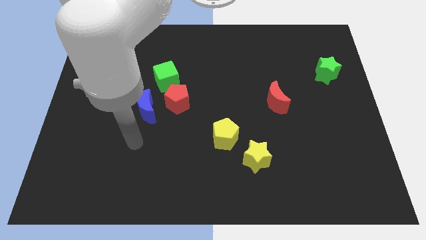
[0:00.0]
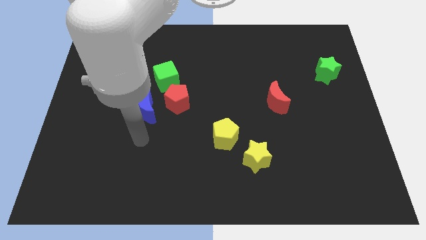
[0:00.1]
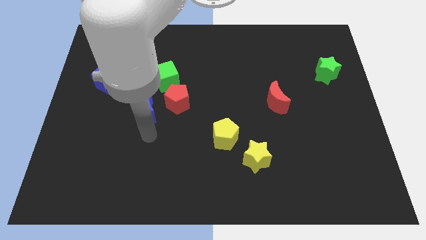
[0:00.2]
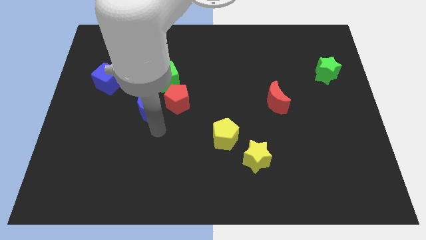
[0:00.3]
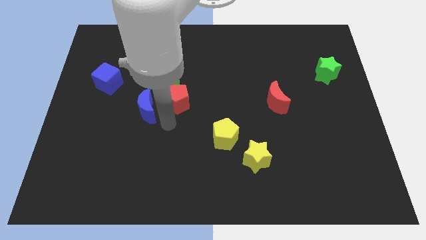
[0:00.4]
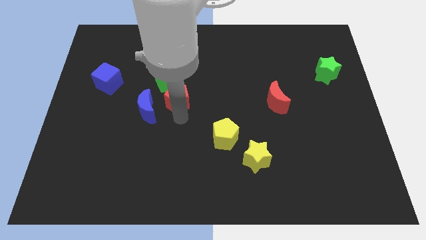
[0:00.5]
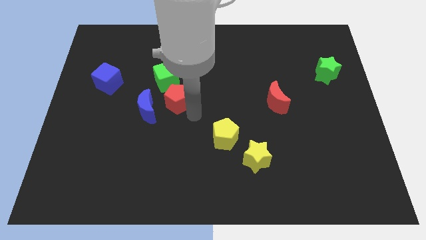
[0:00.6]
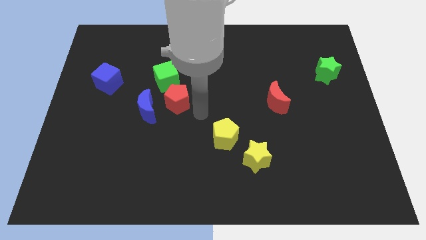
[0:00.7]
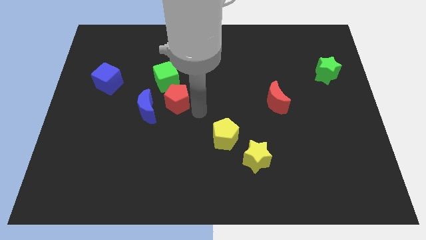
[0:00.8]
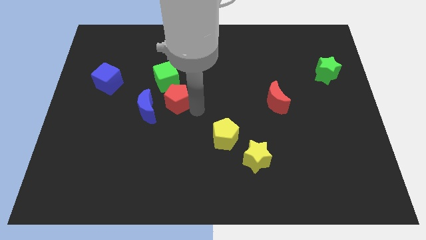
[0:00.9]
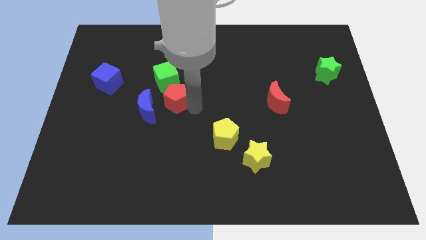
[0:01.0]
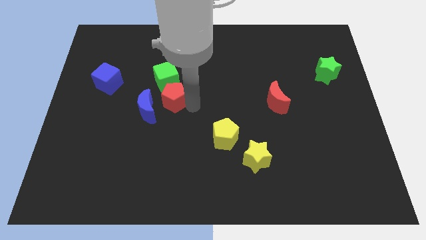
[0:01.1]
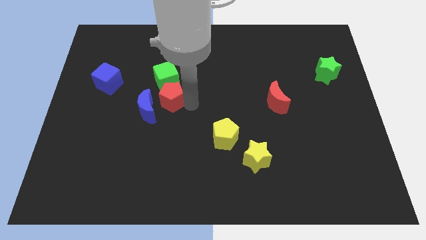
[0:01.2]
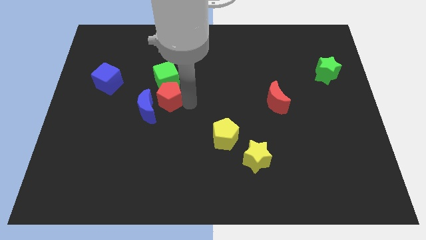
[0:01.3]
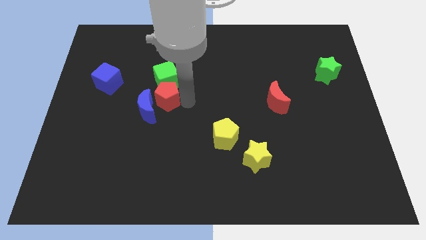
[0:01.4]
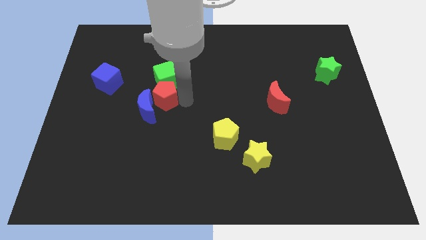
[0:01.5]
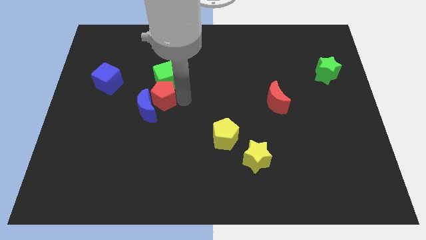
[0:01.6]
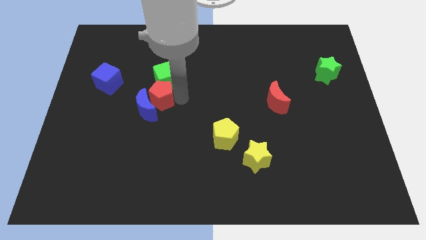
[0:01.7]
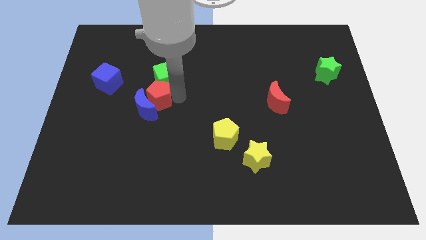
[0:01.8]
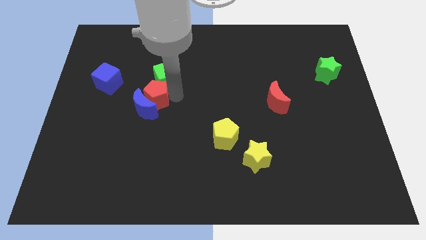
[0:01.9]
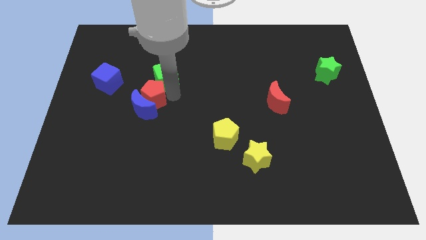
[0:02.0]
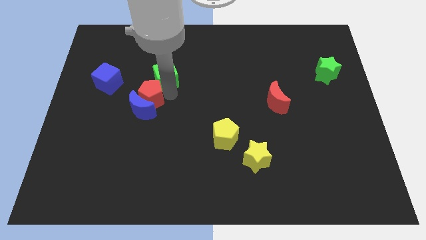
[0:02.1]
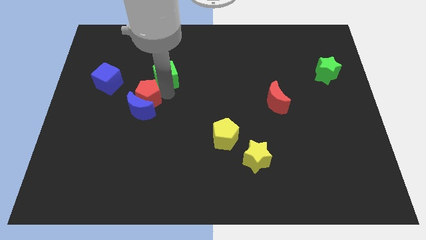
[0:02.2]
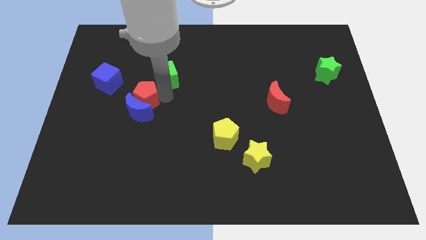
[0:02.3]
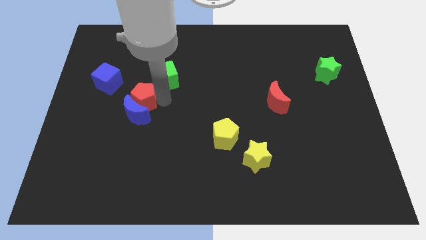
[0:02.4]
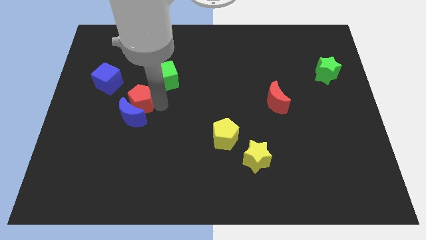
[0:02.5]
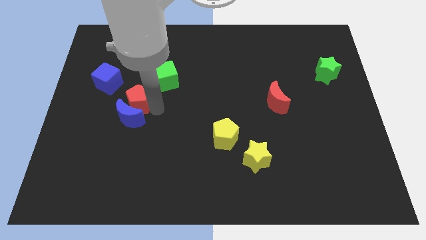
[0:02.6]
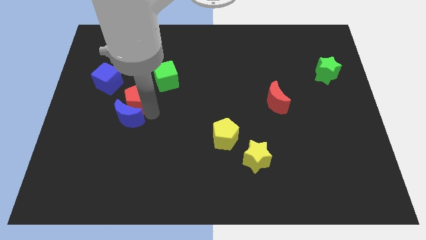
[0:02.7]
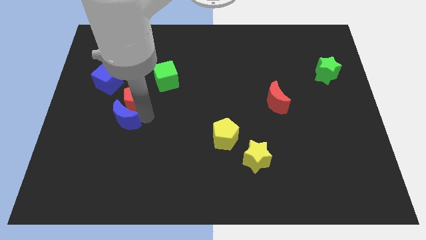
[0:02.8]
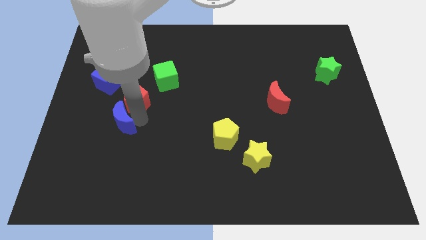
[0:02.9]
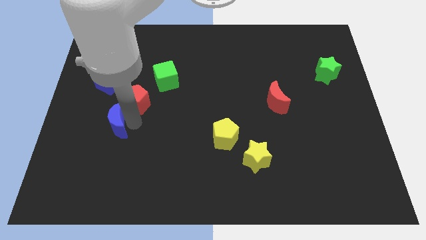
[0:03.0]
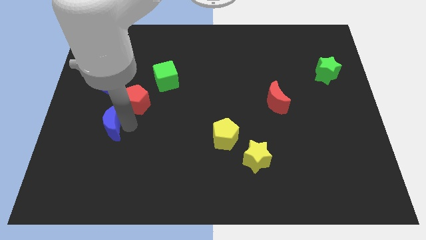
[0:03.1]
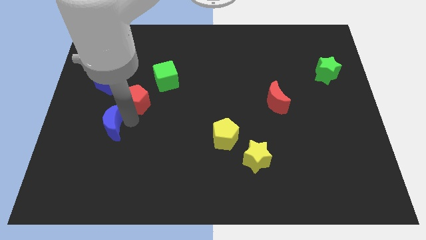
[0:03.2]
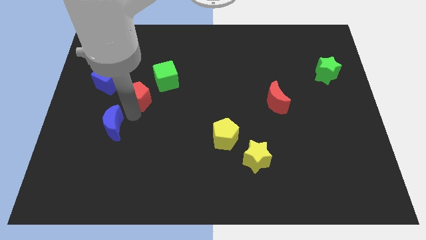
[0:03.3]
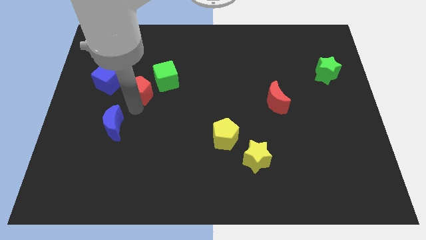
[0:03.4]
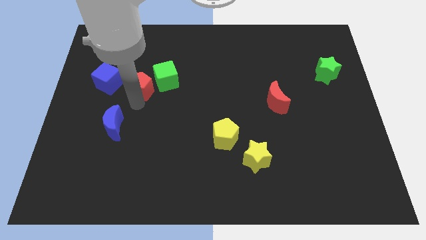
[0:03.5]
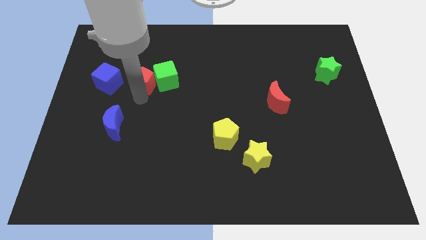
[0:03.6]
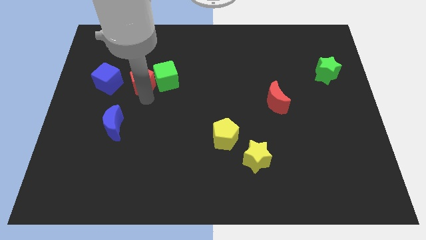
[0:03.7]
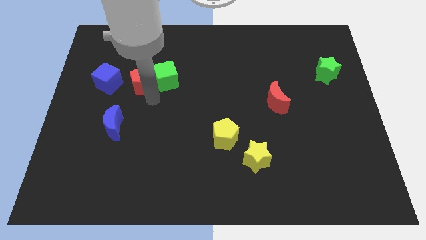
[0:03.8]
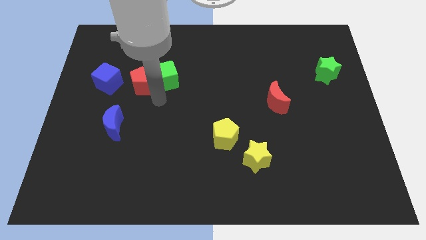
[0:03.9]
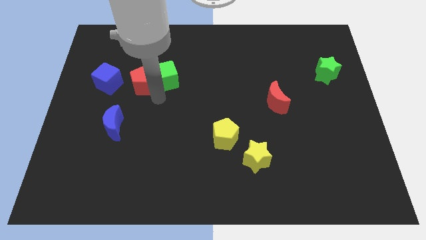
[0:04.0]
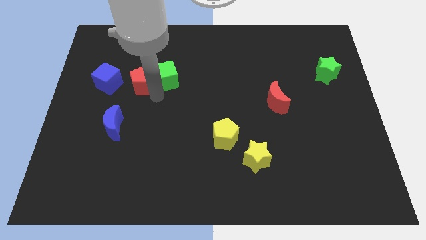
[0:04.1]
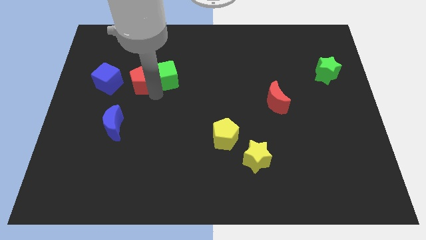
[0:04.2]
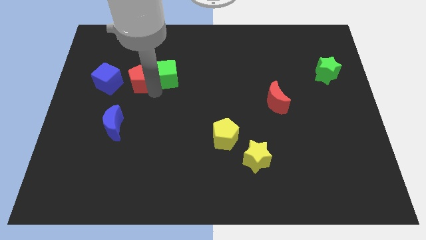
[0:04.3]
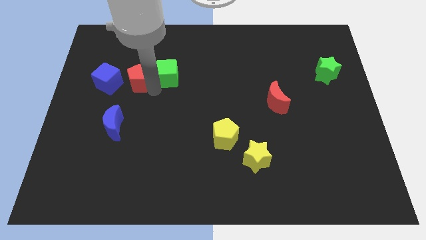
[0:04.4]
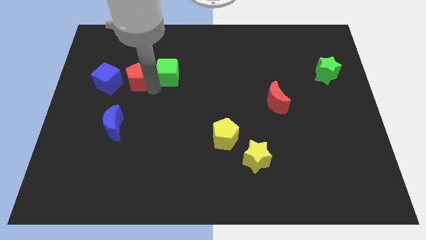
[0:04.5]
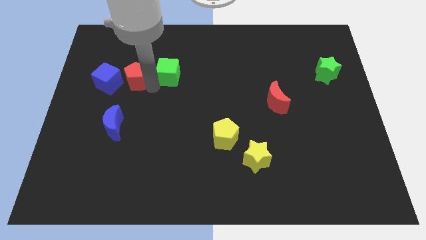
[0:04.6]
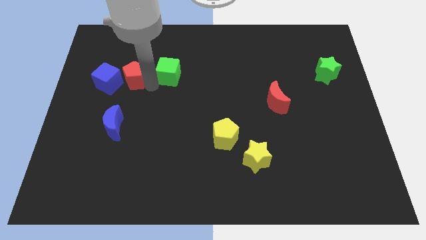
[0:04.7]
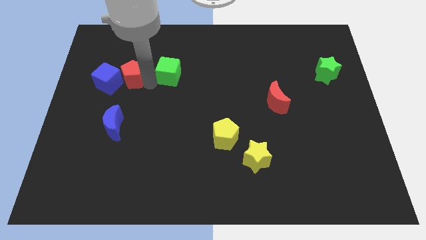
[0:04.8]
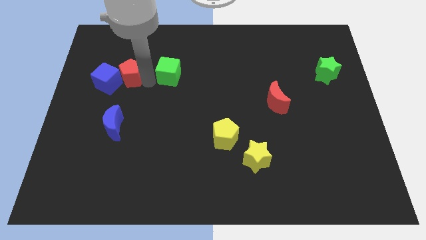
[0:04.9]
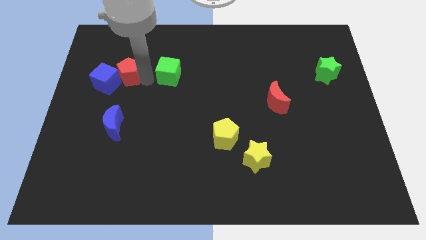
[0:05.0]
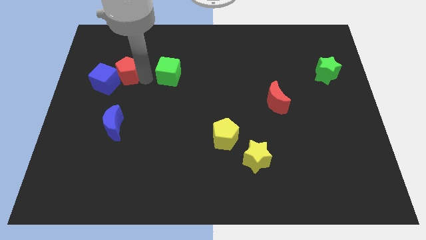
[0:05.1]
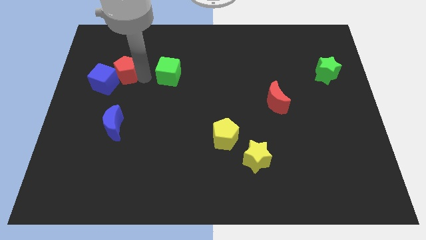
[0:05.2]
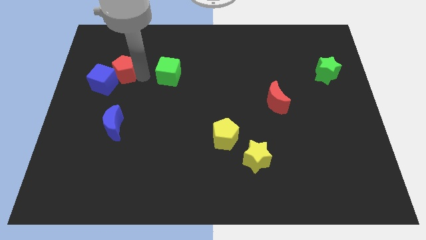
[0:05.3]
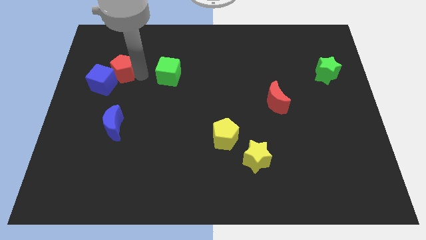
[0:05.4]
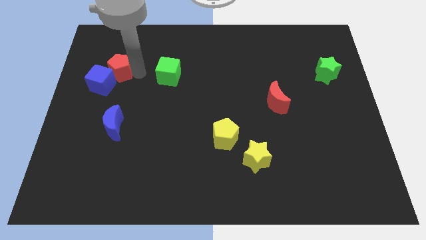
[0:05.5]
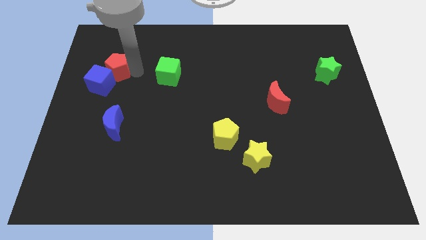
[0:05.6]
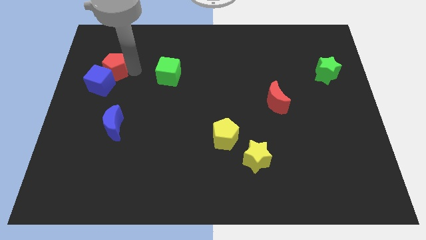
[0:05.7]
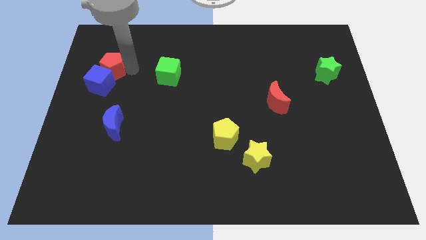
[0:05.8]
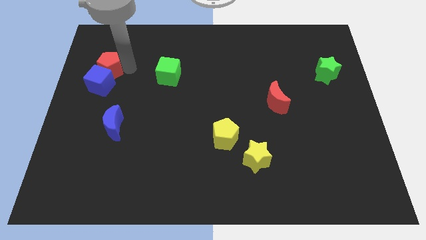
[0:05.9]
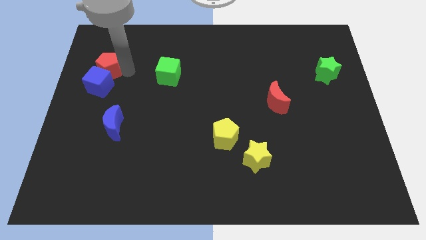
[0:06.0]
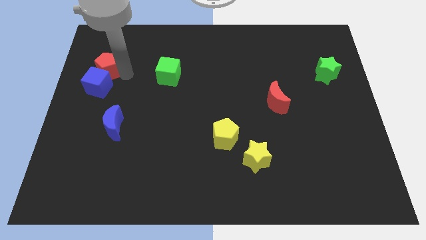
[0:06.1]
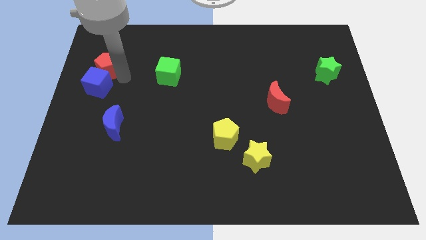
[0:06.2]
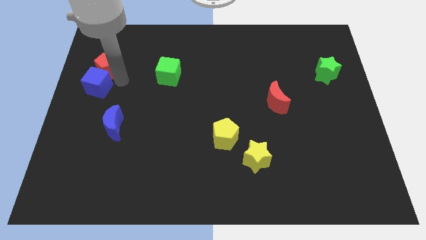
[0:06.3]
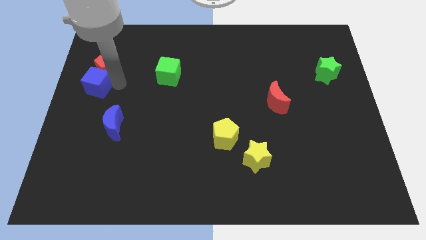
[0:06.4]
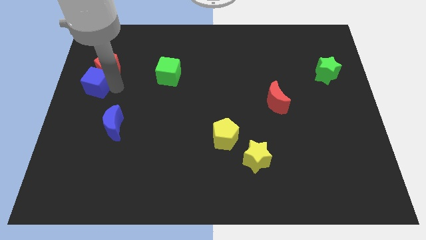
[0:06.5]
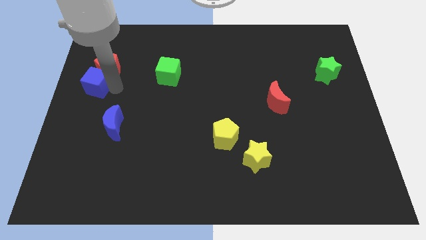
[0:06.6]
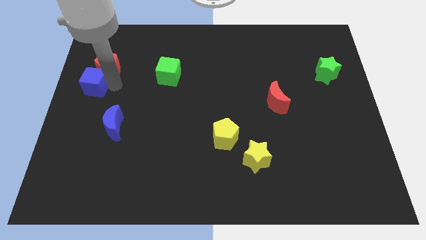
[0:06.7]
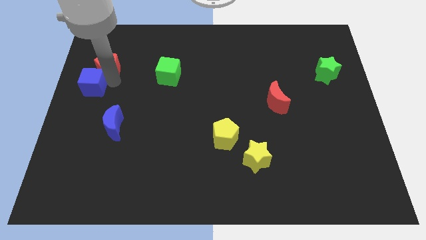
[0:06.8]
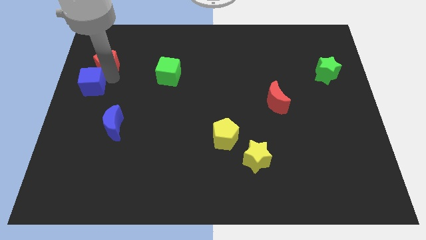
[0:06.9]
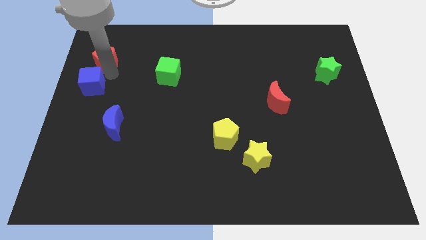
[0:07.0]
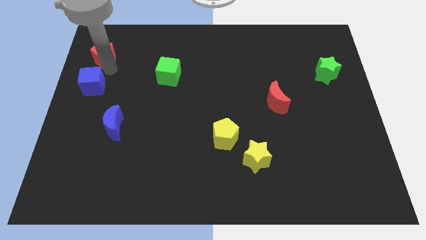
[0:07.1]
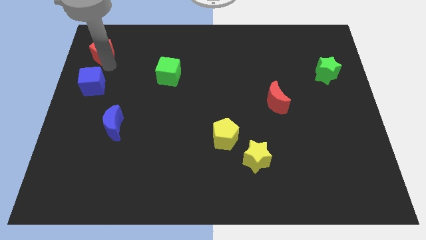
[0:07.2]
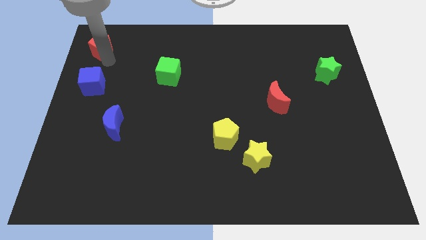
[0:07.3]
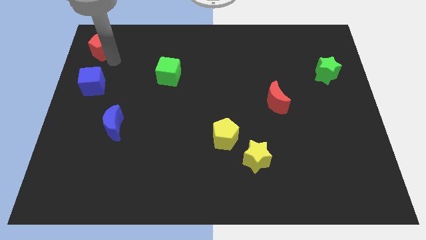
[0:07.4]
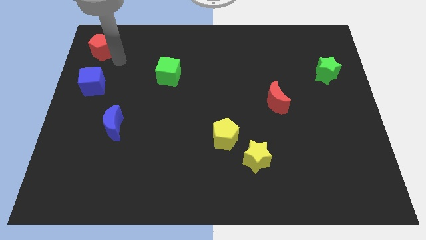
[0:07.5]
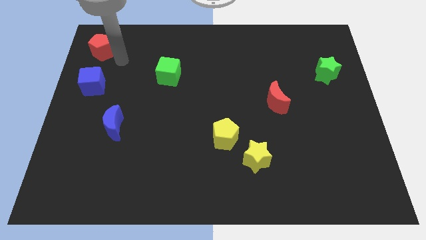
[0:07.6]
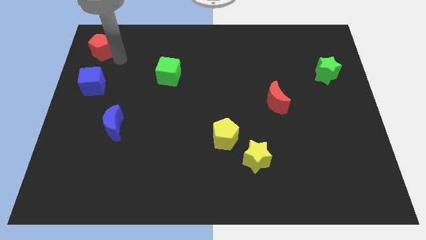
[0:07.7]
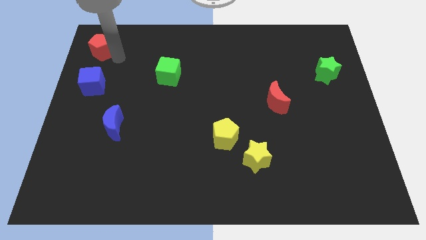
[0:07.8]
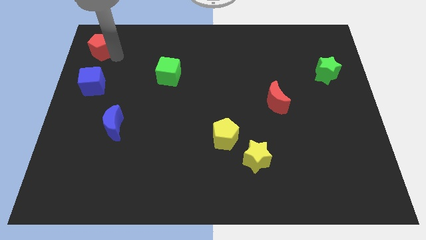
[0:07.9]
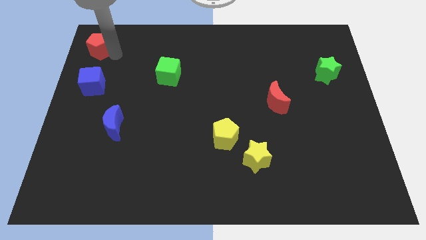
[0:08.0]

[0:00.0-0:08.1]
slide the red pentagon to the top left
